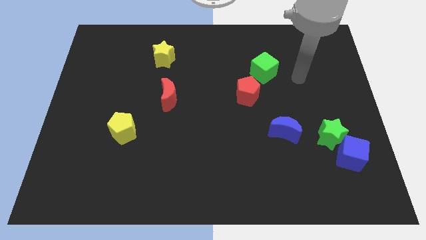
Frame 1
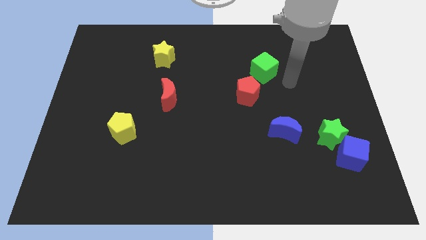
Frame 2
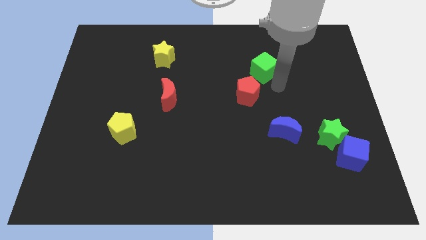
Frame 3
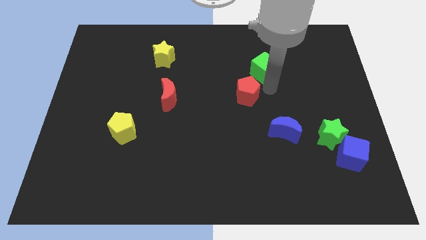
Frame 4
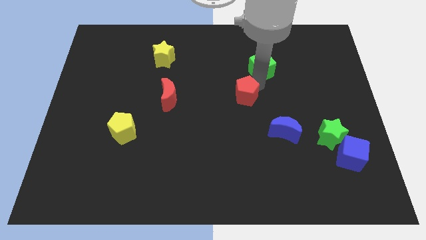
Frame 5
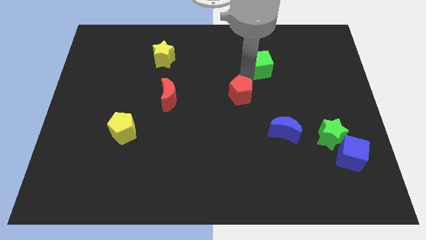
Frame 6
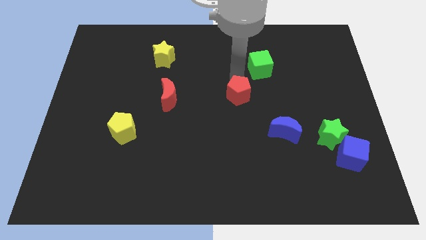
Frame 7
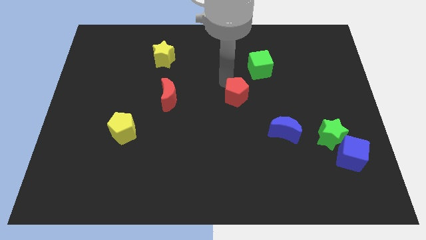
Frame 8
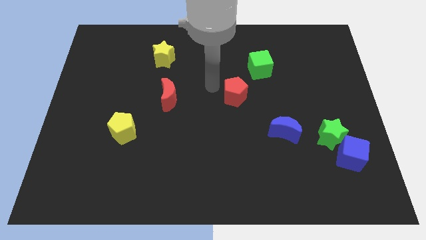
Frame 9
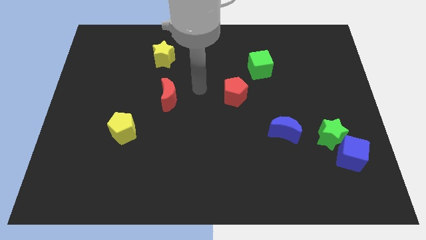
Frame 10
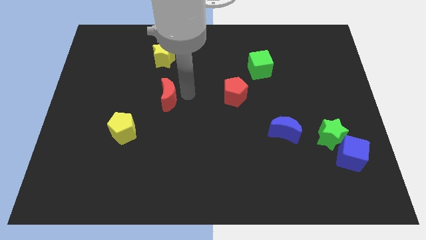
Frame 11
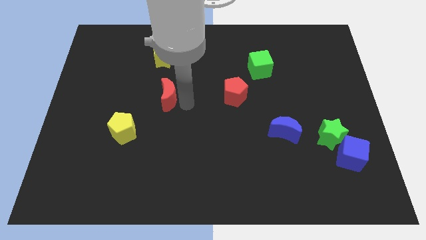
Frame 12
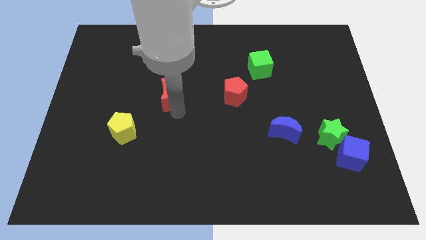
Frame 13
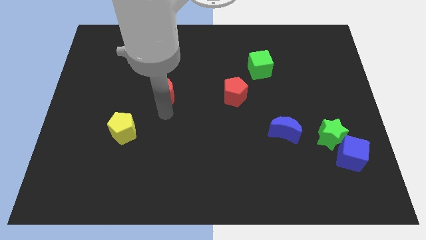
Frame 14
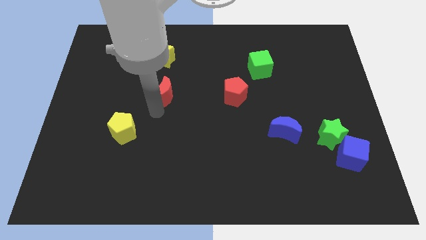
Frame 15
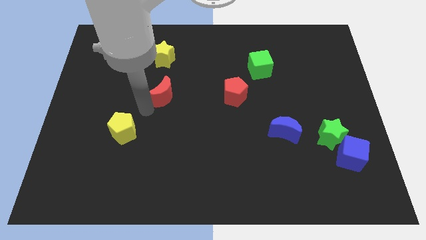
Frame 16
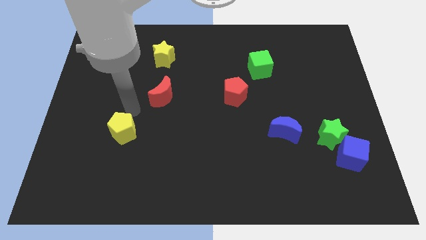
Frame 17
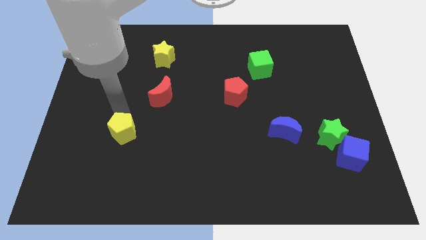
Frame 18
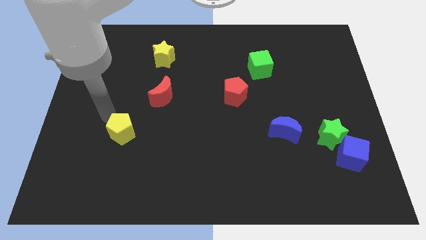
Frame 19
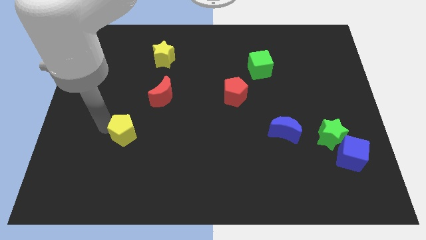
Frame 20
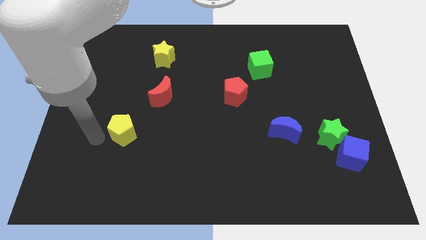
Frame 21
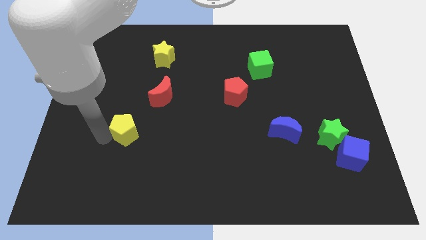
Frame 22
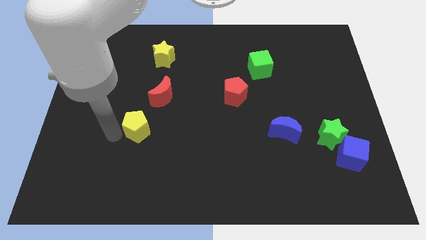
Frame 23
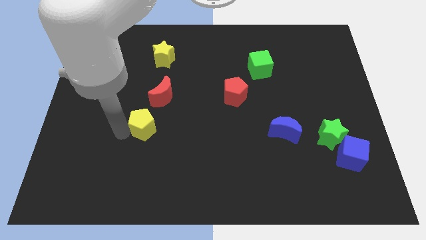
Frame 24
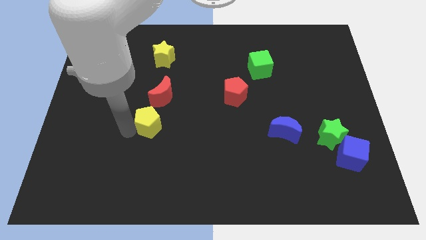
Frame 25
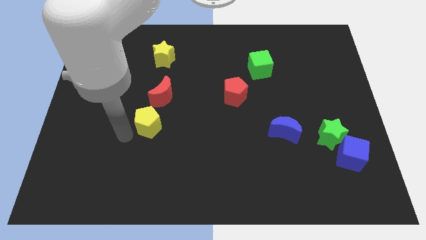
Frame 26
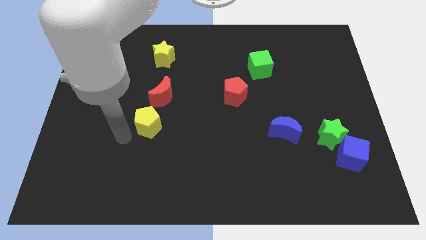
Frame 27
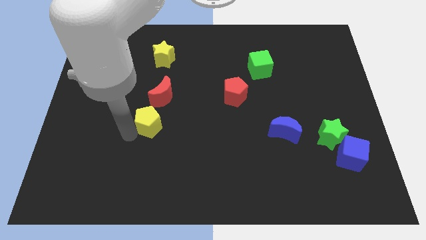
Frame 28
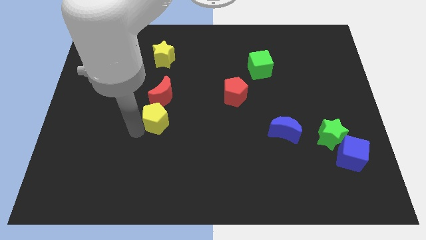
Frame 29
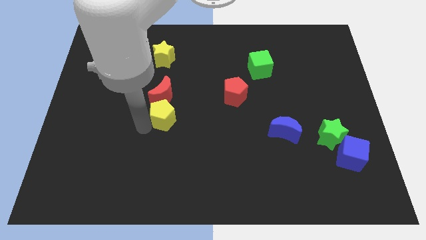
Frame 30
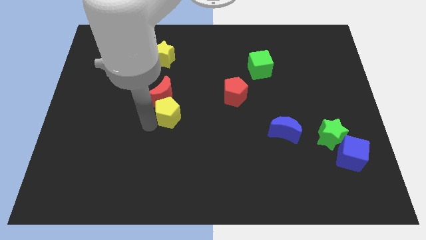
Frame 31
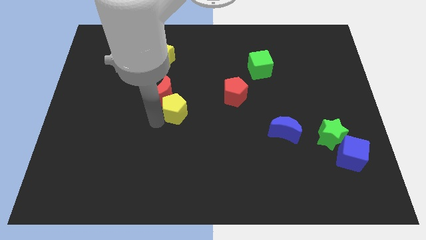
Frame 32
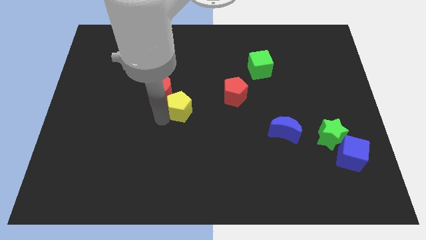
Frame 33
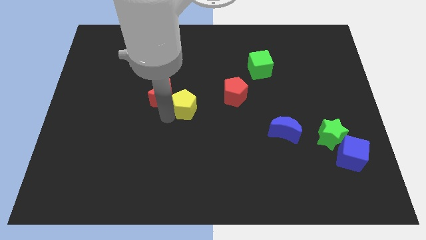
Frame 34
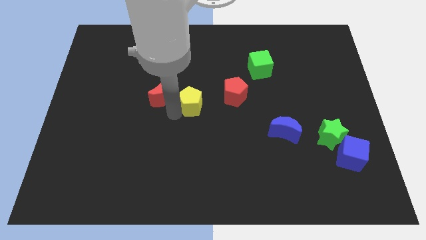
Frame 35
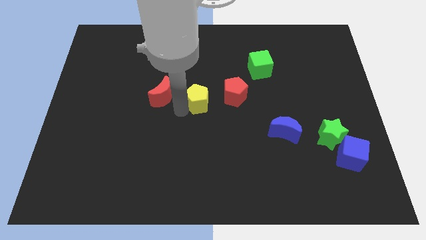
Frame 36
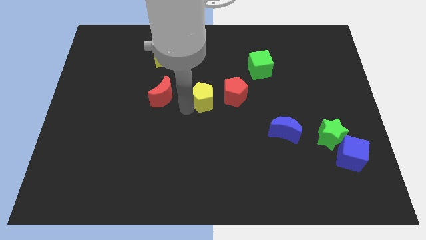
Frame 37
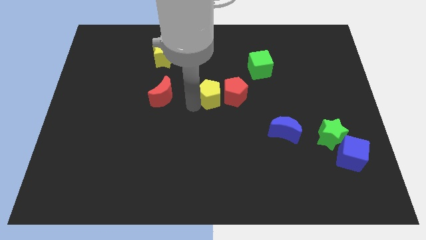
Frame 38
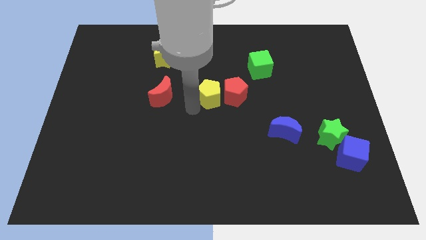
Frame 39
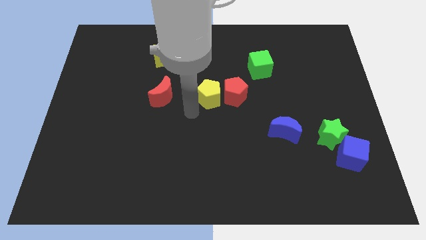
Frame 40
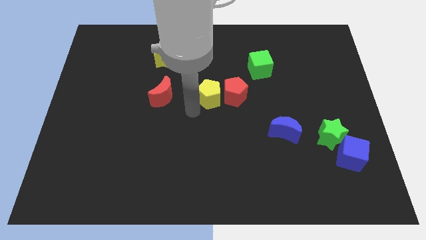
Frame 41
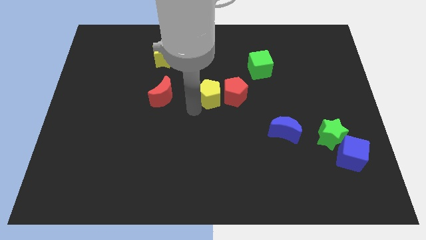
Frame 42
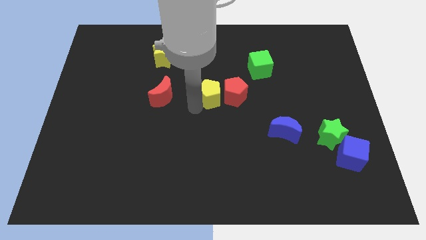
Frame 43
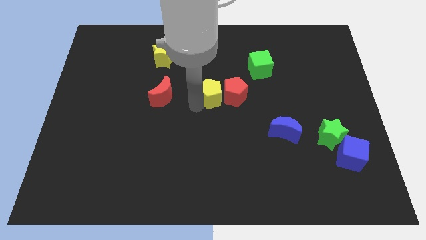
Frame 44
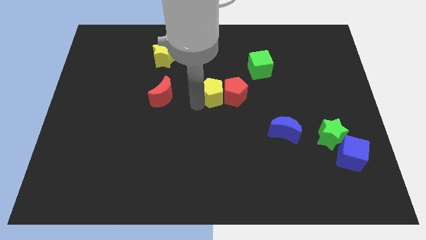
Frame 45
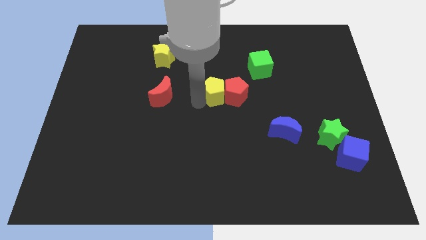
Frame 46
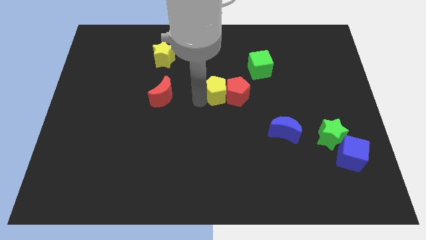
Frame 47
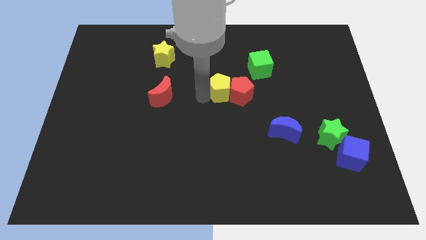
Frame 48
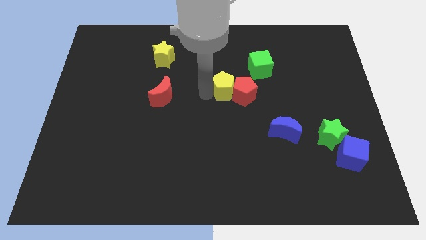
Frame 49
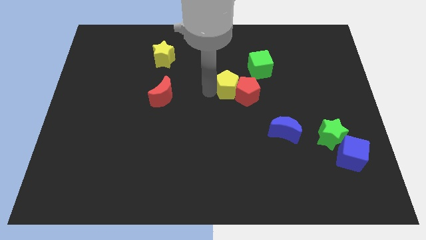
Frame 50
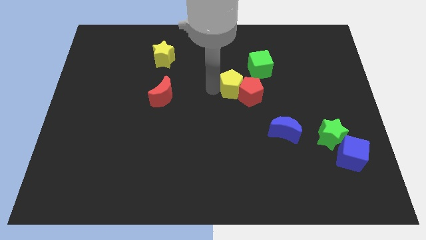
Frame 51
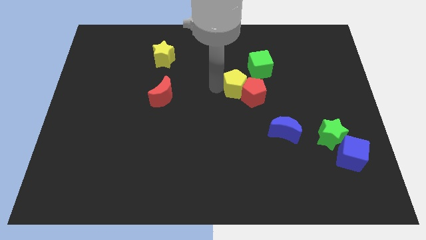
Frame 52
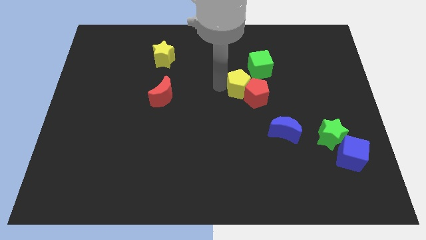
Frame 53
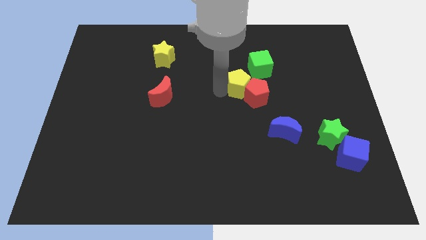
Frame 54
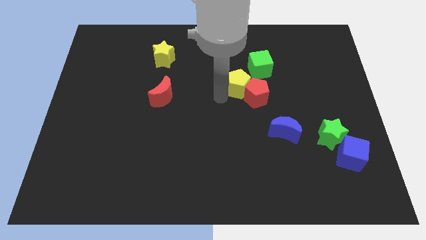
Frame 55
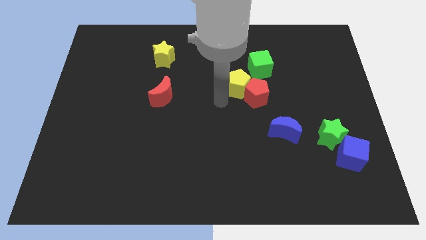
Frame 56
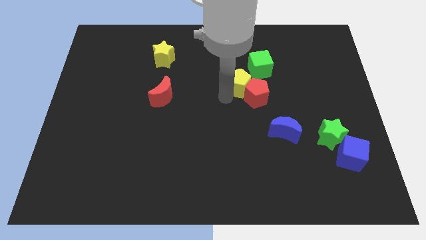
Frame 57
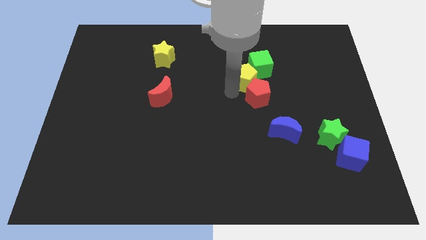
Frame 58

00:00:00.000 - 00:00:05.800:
put the yellow pentagon to the green cube

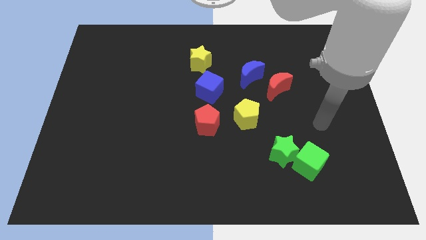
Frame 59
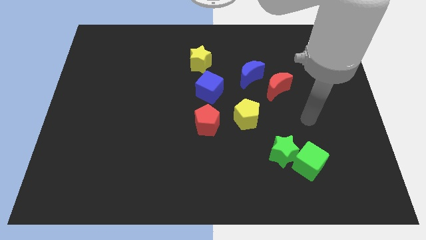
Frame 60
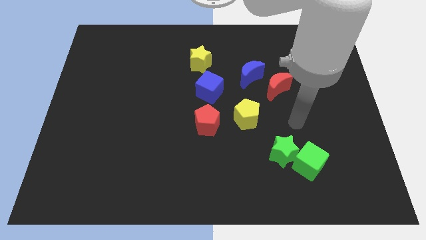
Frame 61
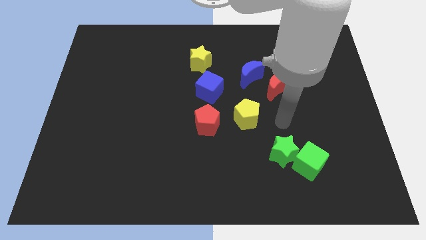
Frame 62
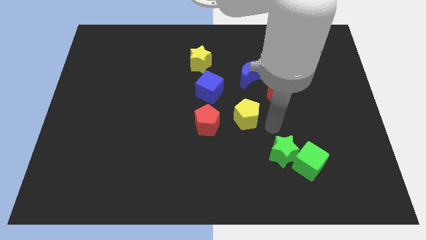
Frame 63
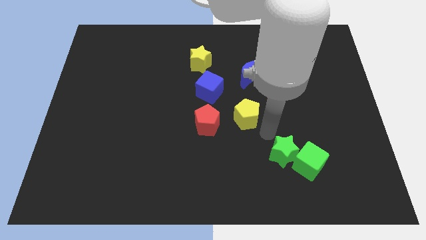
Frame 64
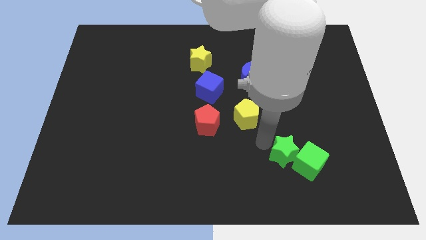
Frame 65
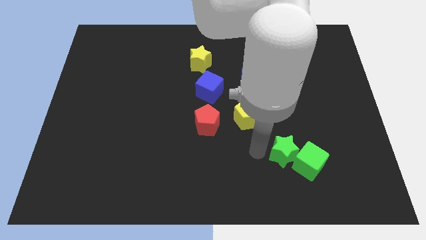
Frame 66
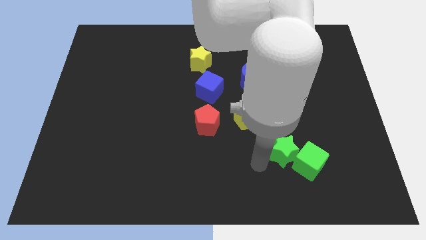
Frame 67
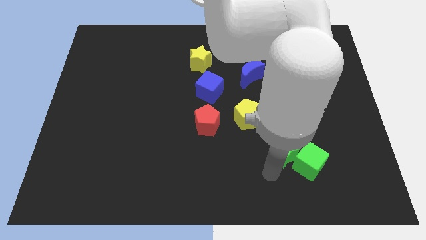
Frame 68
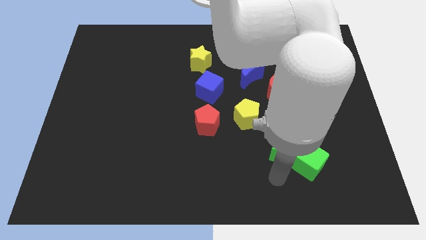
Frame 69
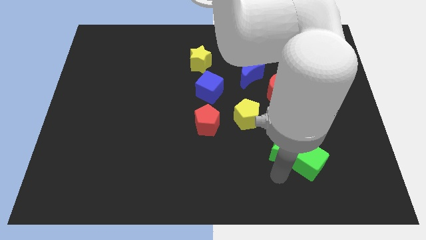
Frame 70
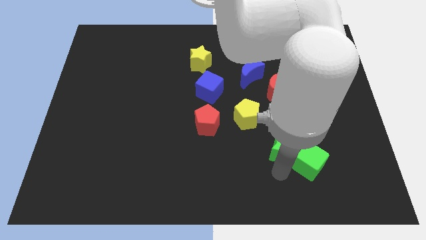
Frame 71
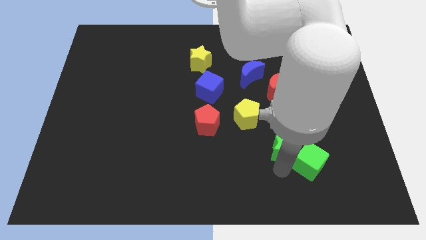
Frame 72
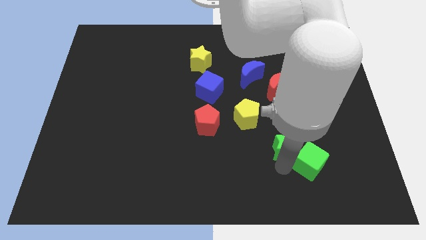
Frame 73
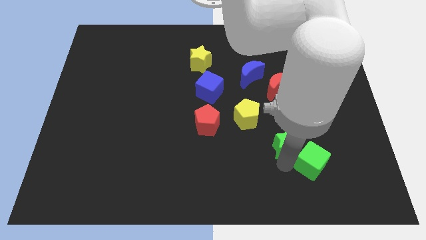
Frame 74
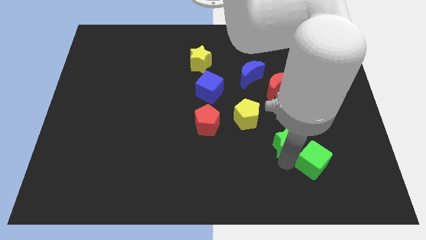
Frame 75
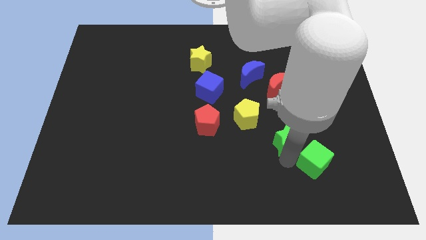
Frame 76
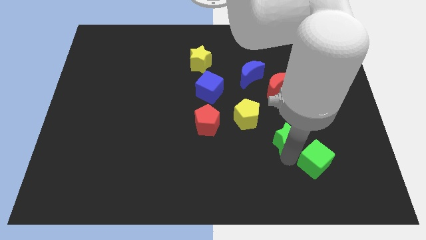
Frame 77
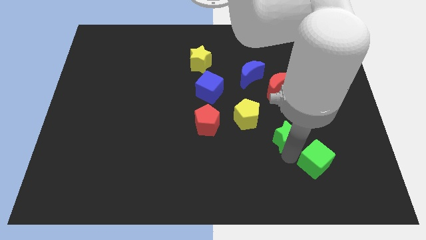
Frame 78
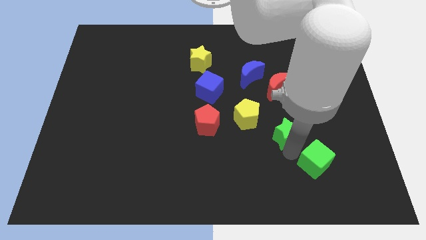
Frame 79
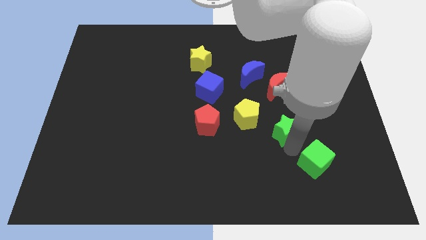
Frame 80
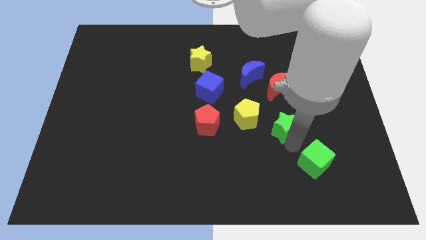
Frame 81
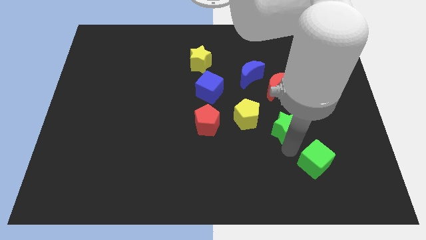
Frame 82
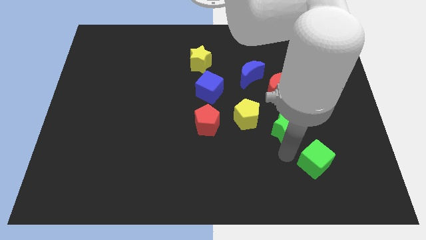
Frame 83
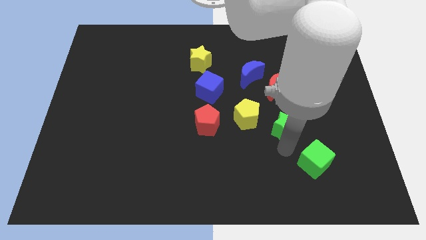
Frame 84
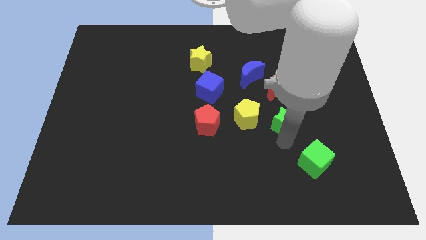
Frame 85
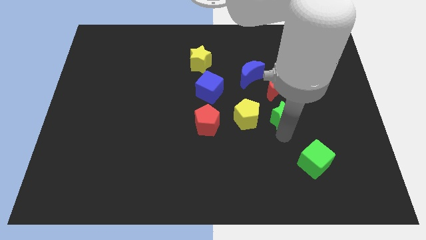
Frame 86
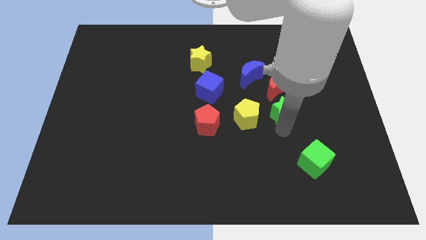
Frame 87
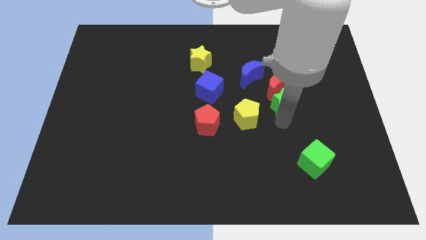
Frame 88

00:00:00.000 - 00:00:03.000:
push the green star towards the red moon
